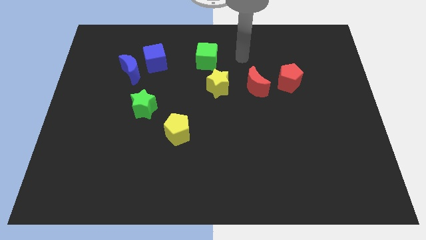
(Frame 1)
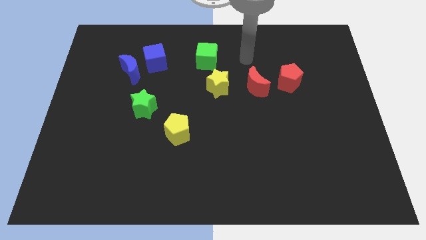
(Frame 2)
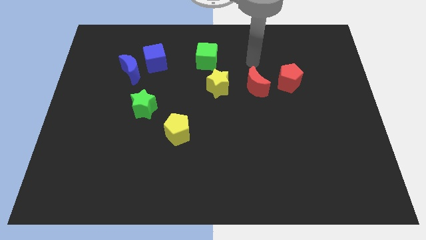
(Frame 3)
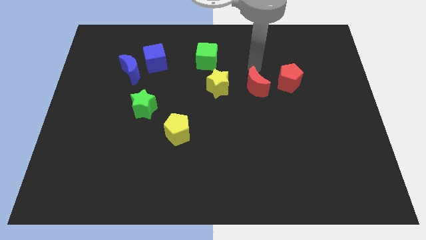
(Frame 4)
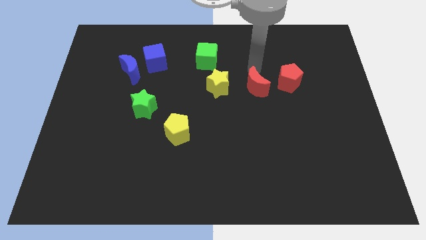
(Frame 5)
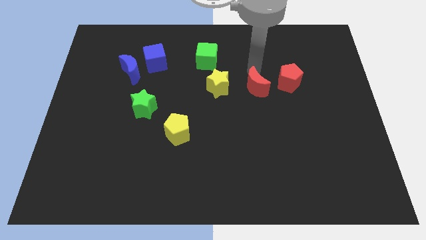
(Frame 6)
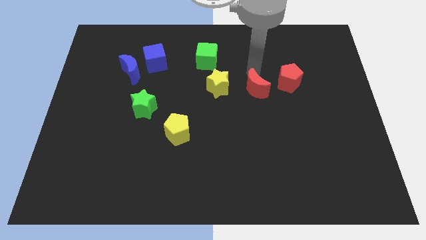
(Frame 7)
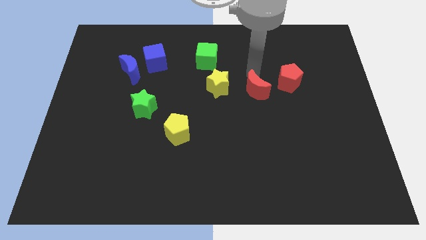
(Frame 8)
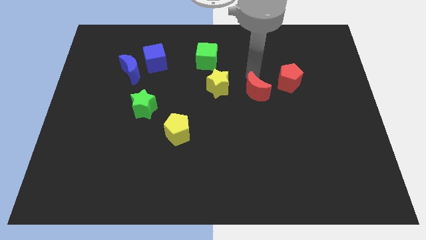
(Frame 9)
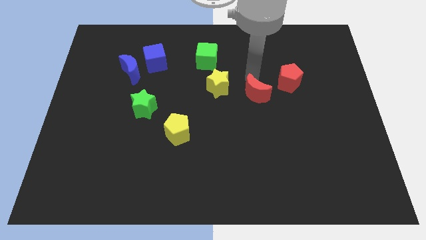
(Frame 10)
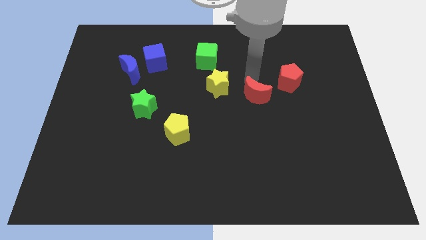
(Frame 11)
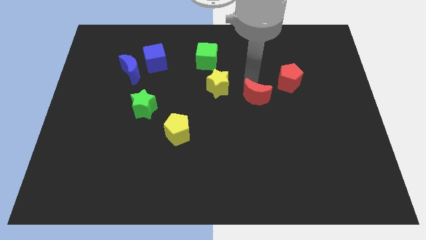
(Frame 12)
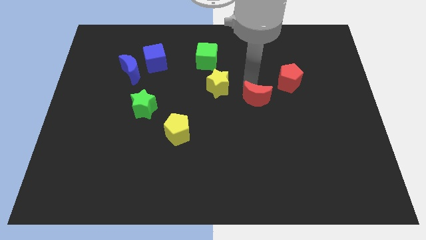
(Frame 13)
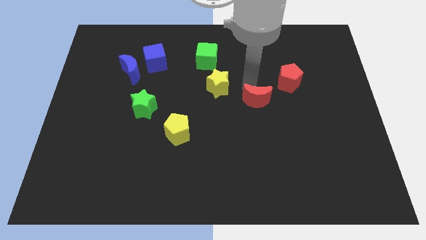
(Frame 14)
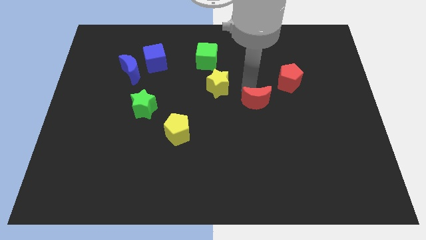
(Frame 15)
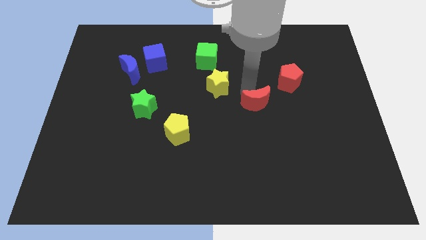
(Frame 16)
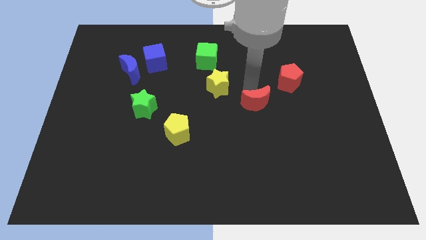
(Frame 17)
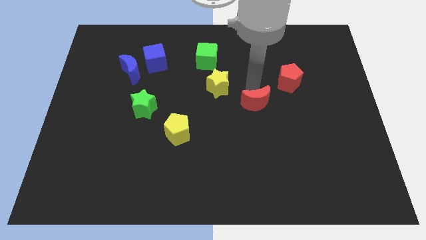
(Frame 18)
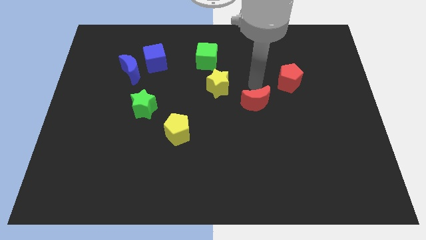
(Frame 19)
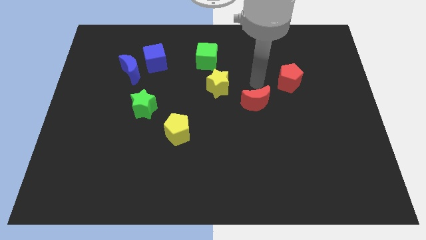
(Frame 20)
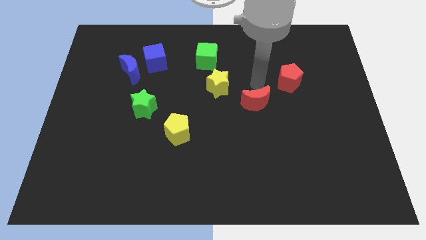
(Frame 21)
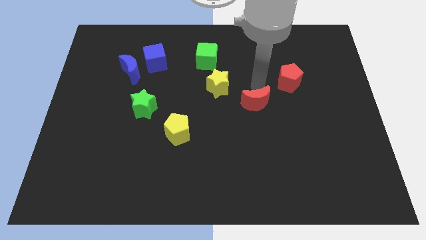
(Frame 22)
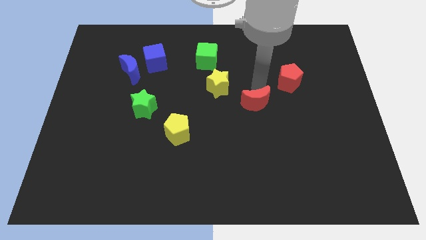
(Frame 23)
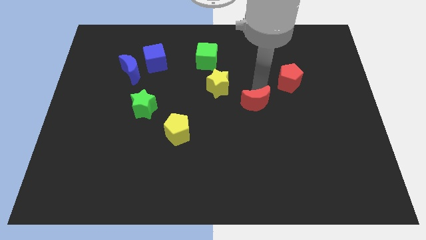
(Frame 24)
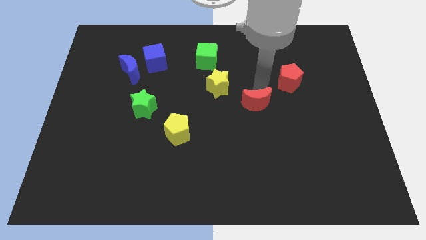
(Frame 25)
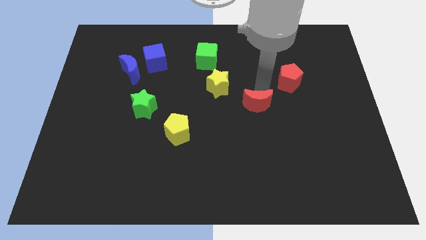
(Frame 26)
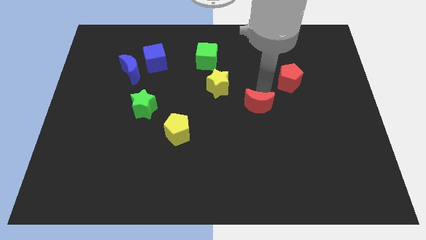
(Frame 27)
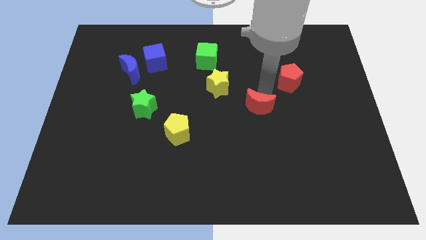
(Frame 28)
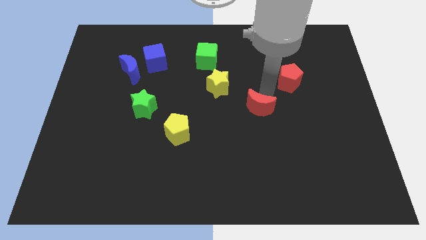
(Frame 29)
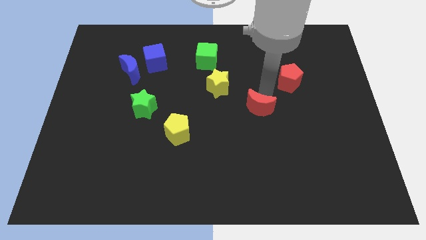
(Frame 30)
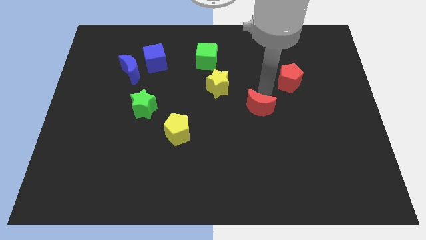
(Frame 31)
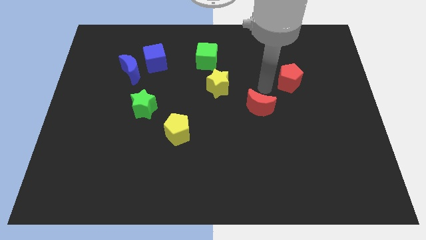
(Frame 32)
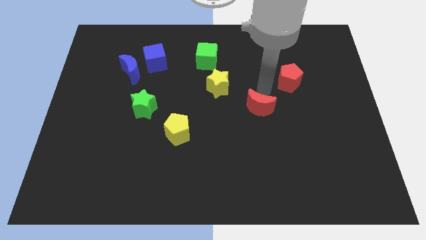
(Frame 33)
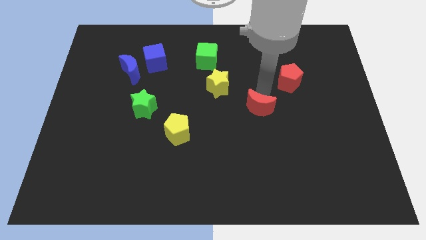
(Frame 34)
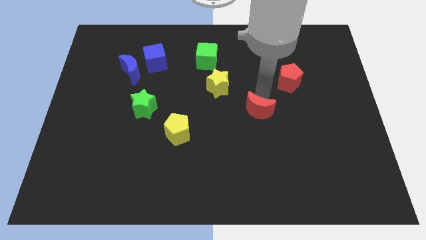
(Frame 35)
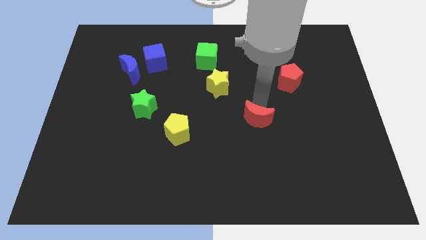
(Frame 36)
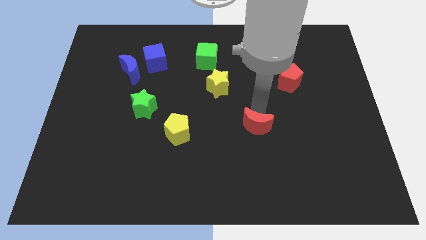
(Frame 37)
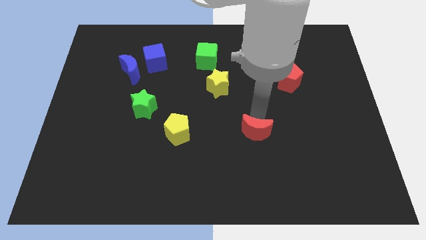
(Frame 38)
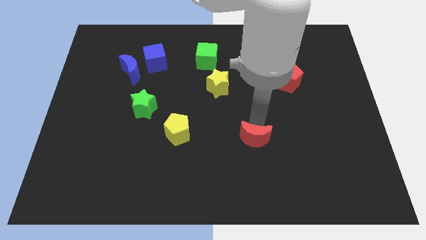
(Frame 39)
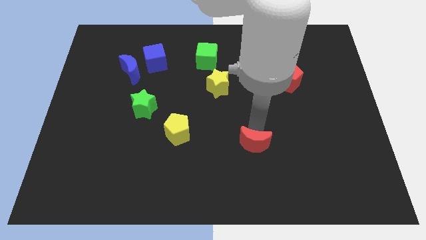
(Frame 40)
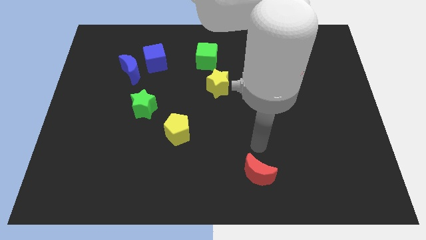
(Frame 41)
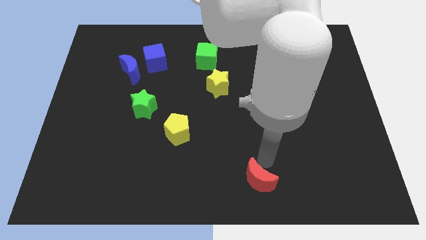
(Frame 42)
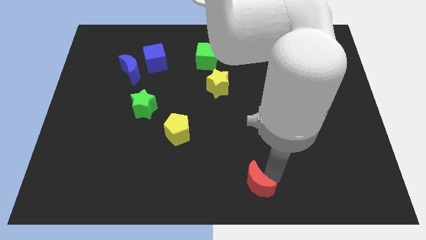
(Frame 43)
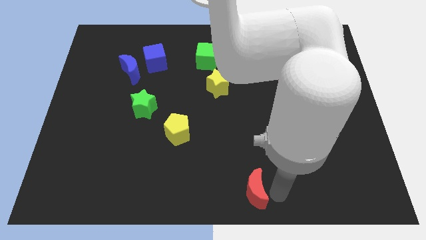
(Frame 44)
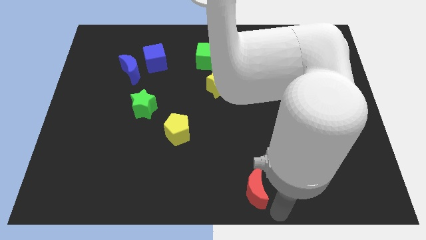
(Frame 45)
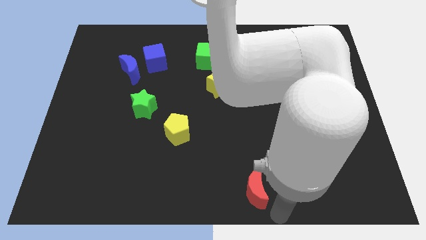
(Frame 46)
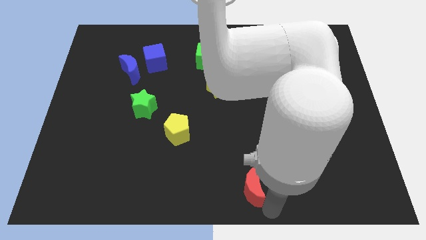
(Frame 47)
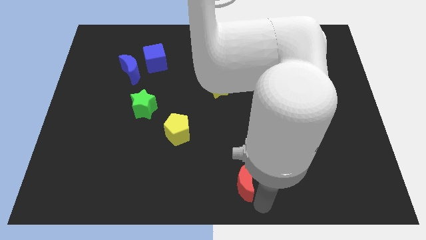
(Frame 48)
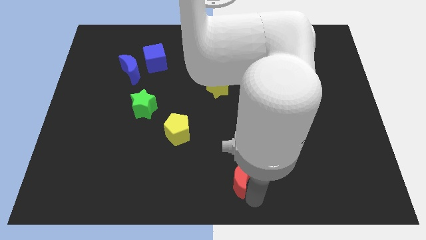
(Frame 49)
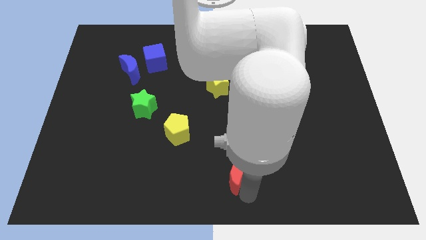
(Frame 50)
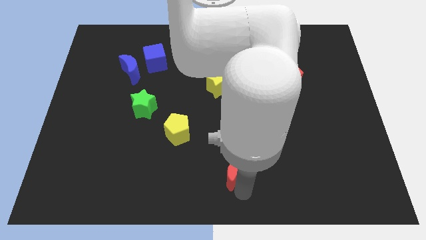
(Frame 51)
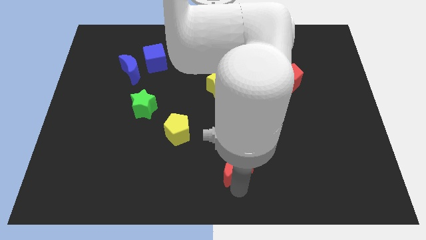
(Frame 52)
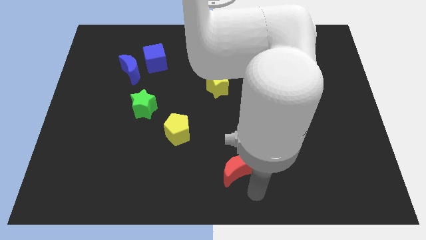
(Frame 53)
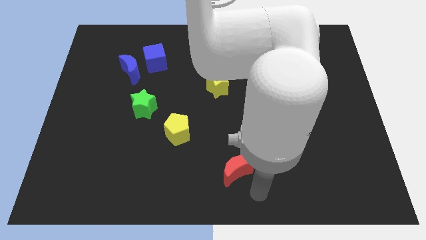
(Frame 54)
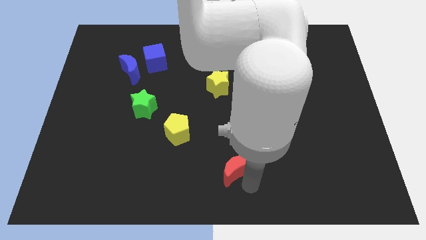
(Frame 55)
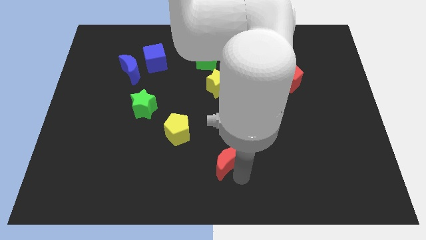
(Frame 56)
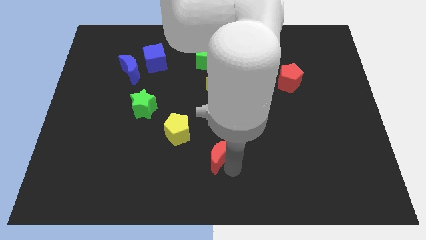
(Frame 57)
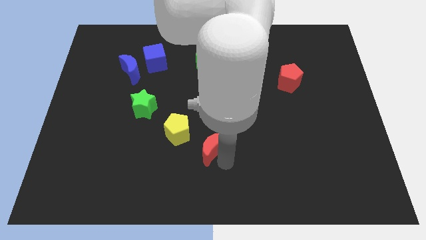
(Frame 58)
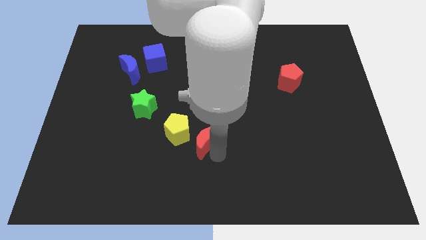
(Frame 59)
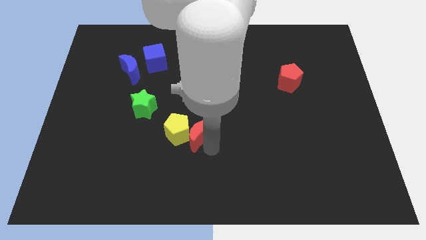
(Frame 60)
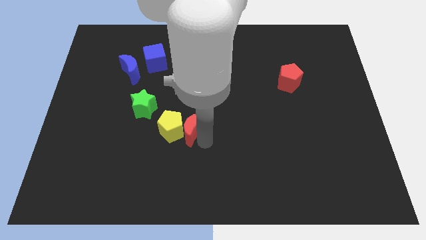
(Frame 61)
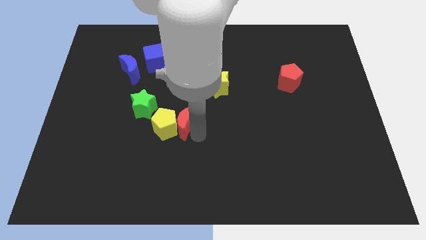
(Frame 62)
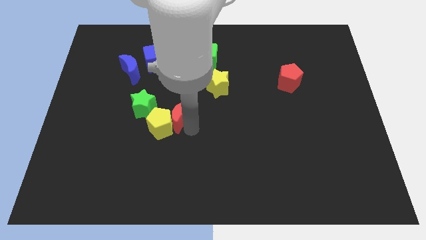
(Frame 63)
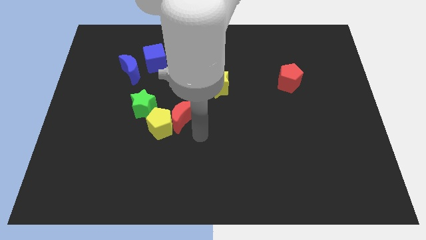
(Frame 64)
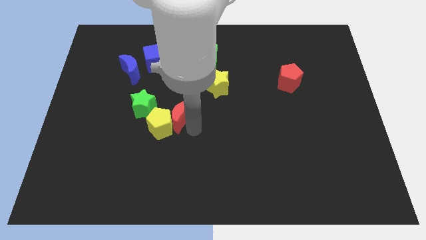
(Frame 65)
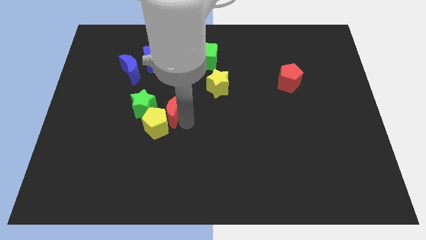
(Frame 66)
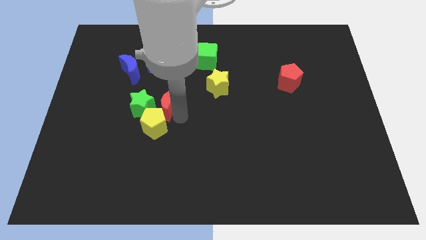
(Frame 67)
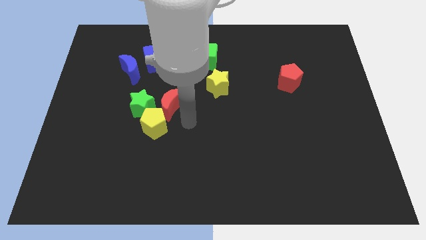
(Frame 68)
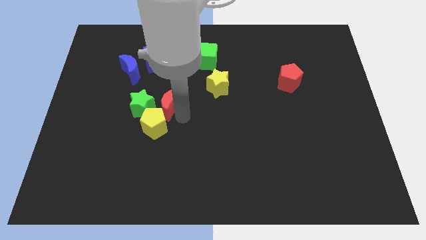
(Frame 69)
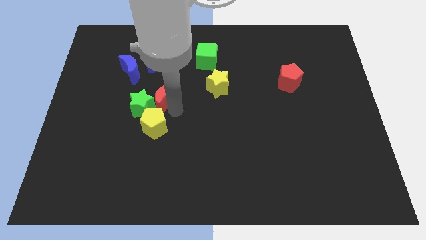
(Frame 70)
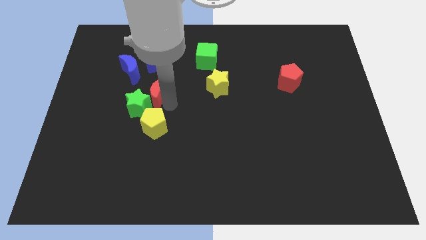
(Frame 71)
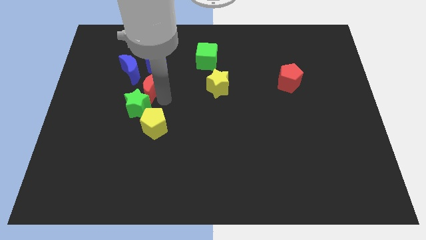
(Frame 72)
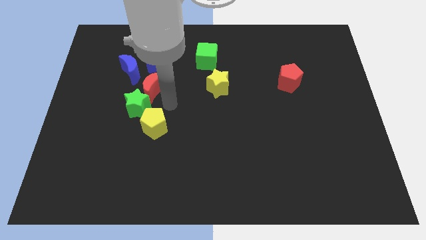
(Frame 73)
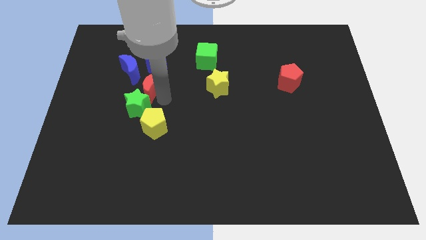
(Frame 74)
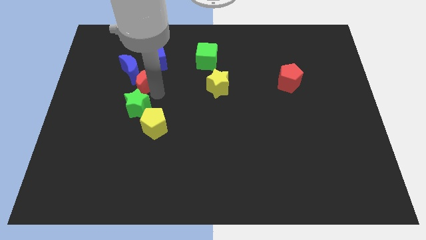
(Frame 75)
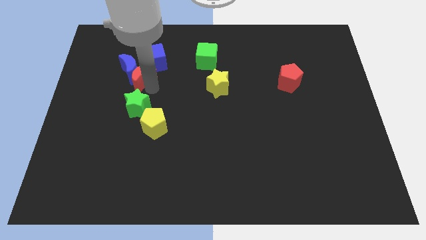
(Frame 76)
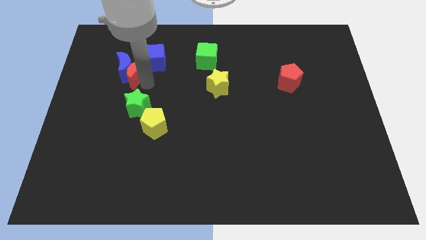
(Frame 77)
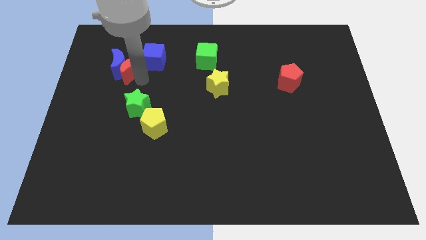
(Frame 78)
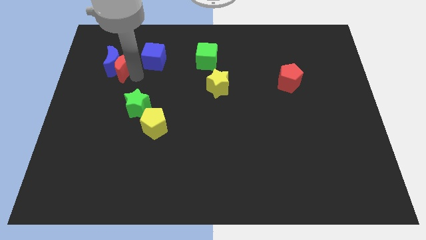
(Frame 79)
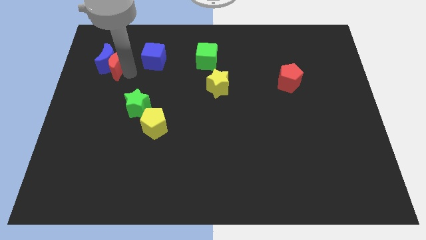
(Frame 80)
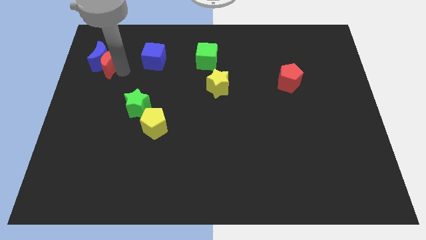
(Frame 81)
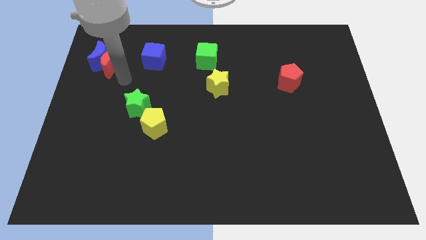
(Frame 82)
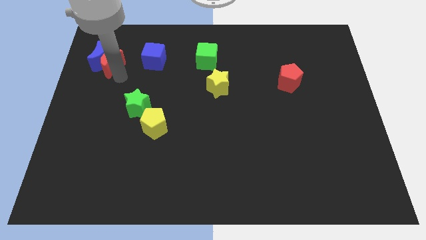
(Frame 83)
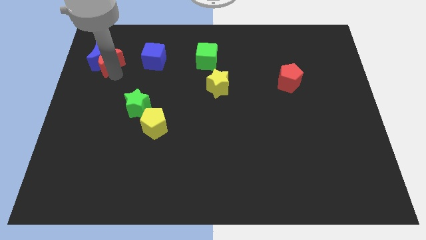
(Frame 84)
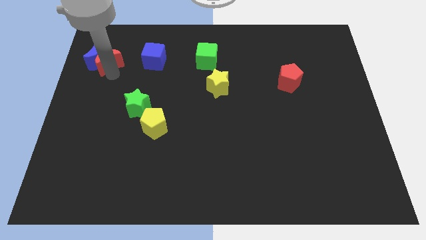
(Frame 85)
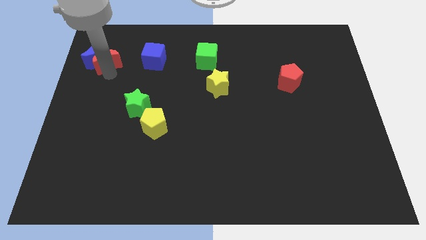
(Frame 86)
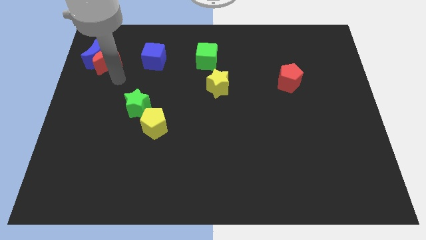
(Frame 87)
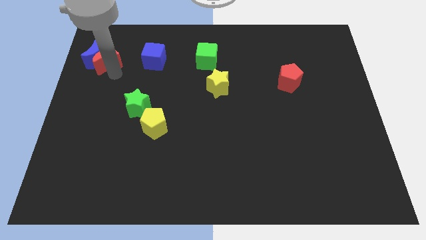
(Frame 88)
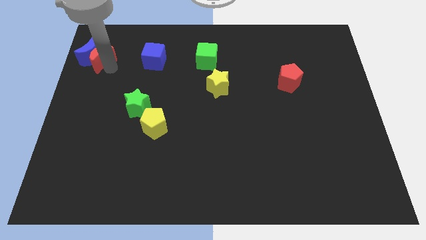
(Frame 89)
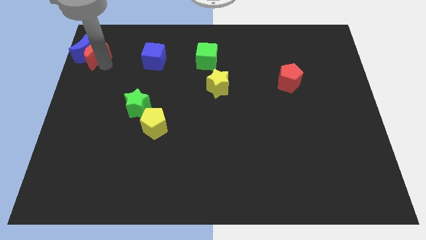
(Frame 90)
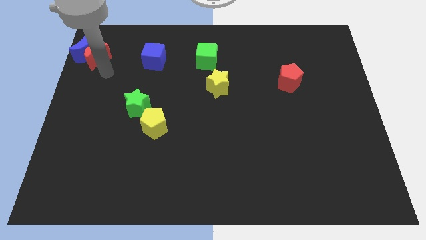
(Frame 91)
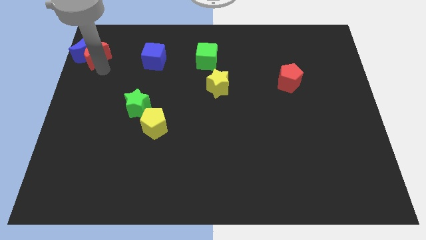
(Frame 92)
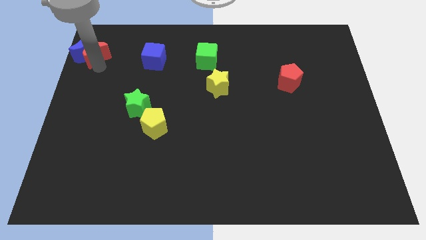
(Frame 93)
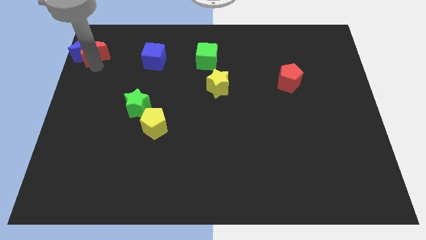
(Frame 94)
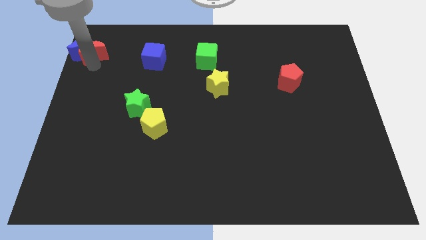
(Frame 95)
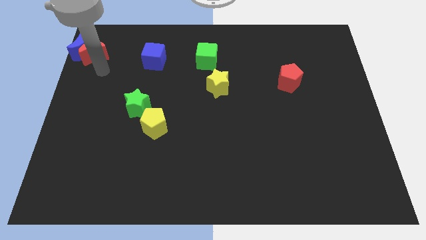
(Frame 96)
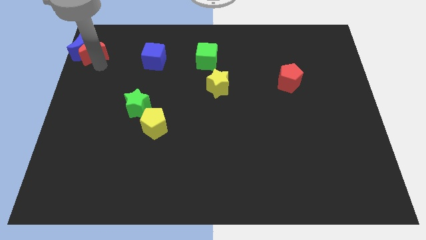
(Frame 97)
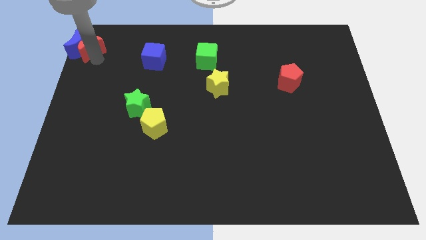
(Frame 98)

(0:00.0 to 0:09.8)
push the red moon to the top left corner
